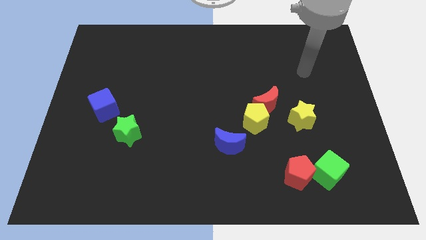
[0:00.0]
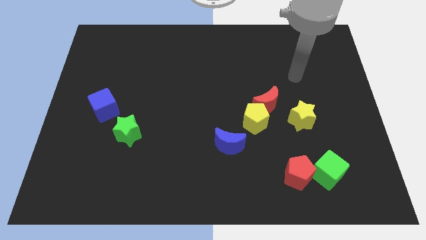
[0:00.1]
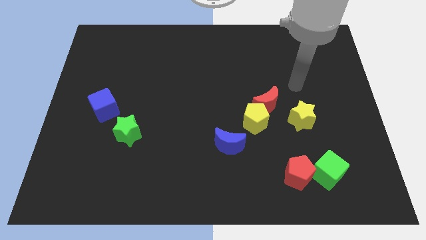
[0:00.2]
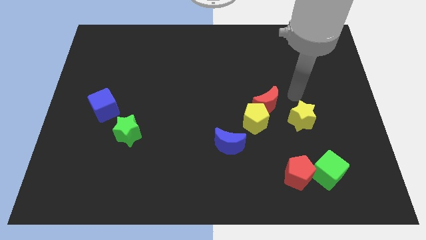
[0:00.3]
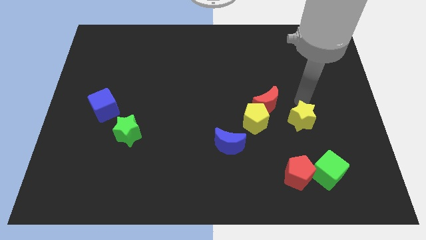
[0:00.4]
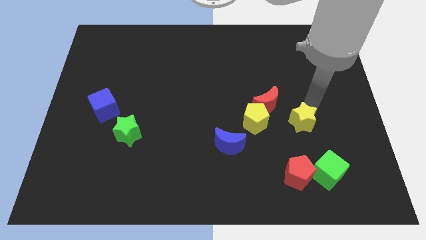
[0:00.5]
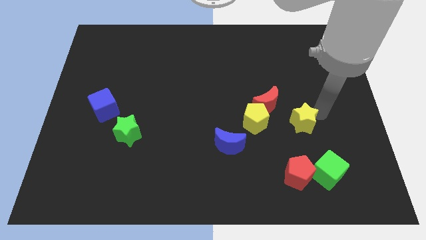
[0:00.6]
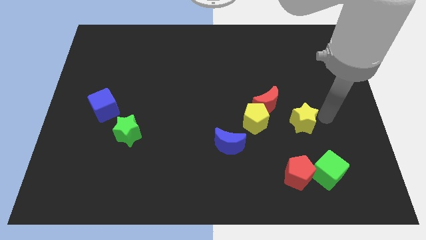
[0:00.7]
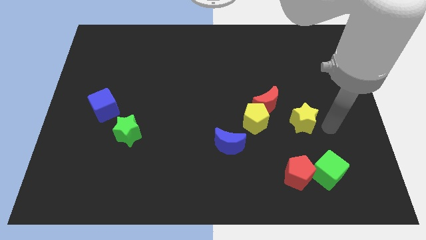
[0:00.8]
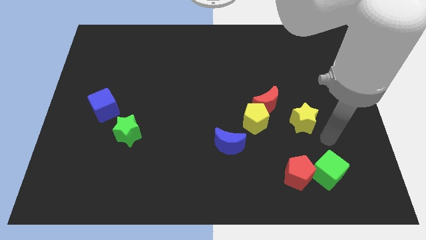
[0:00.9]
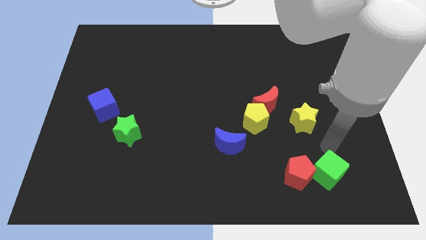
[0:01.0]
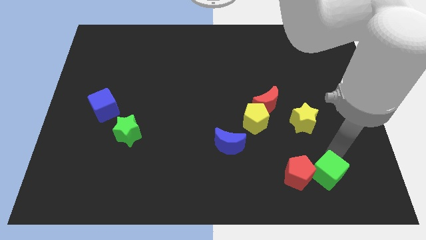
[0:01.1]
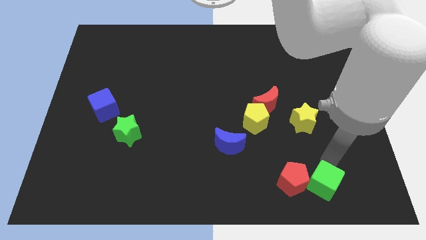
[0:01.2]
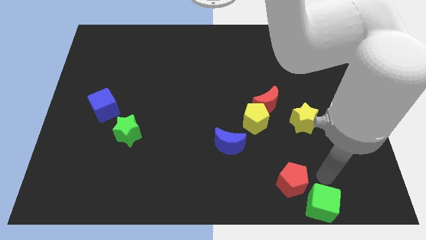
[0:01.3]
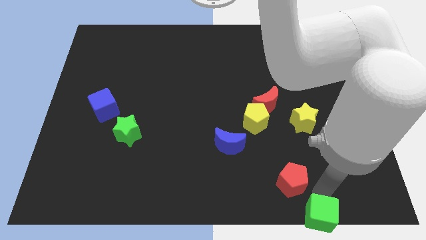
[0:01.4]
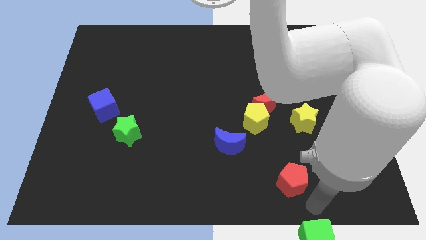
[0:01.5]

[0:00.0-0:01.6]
move the red pentagon away from the green cube

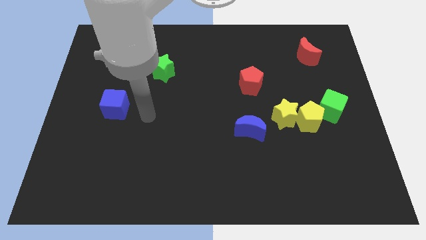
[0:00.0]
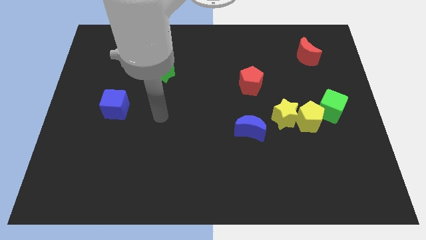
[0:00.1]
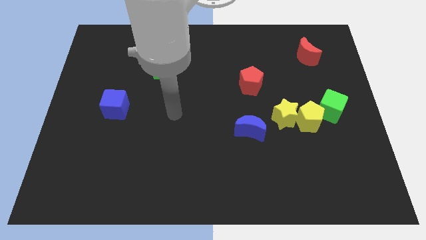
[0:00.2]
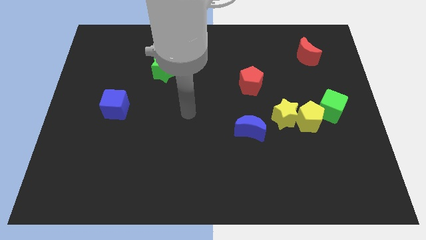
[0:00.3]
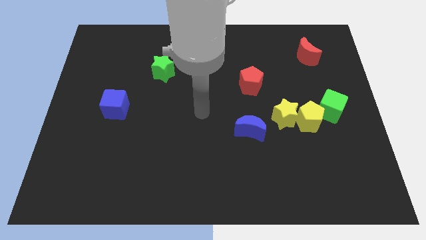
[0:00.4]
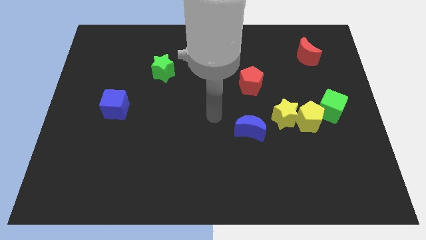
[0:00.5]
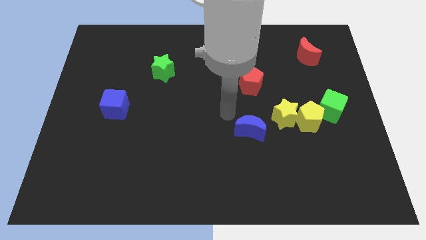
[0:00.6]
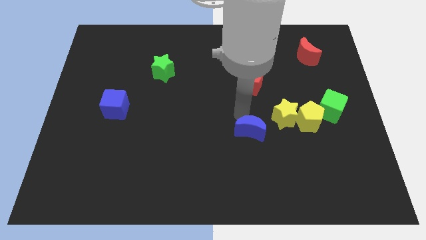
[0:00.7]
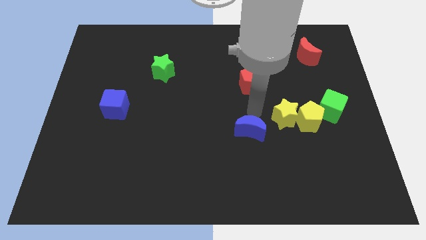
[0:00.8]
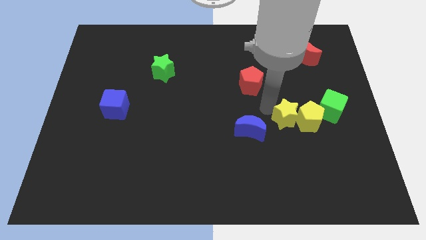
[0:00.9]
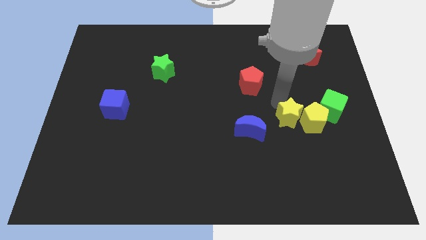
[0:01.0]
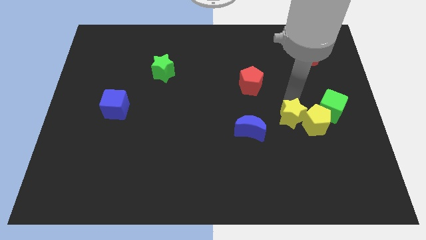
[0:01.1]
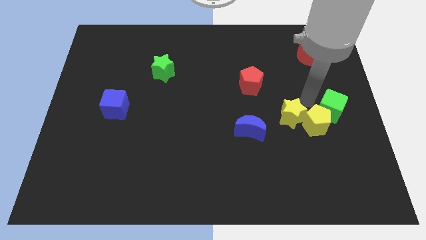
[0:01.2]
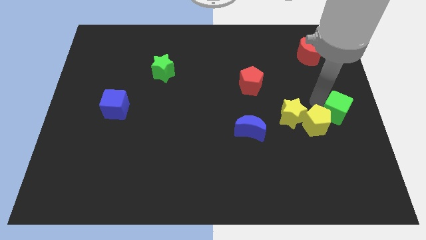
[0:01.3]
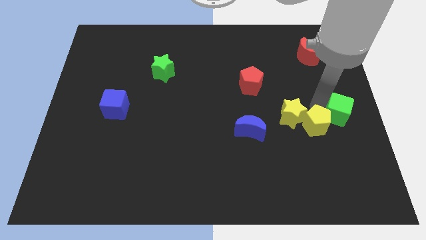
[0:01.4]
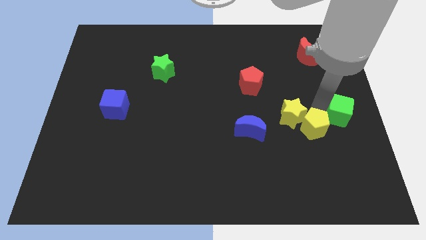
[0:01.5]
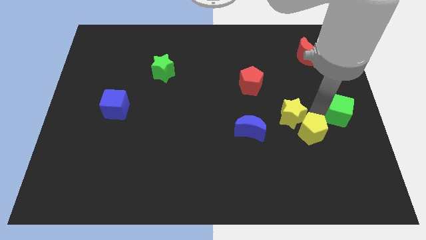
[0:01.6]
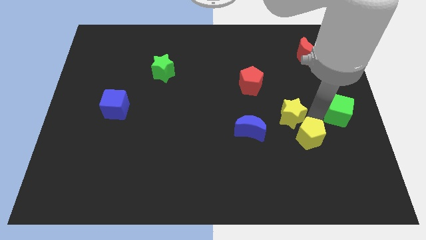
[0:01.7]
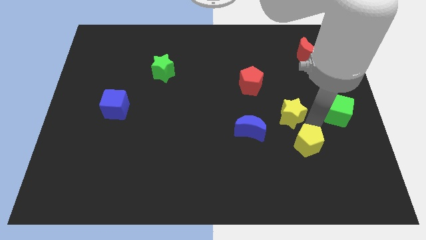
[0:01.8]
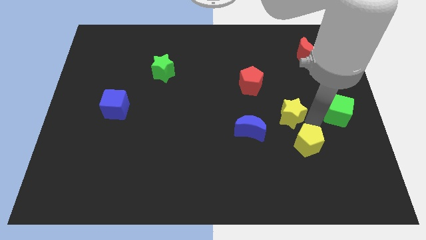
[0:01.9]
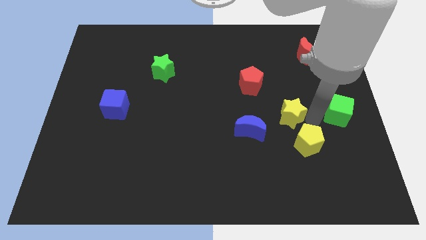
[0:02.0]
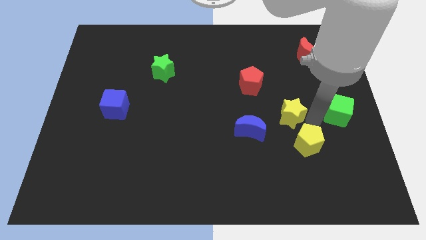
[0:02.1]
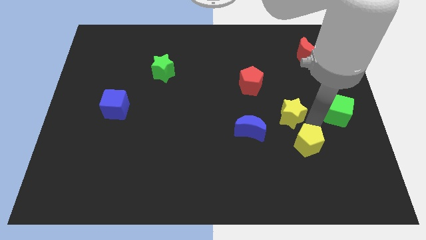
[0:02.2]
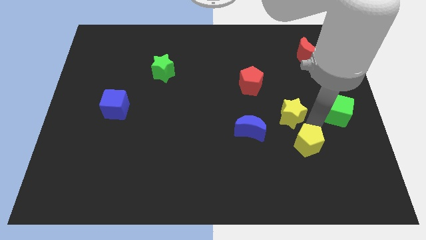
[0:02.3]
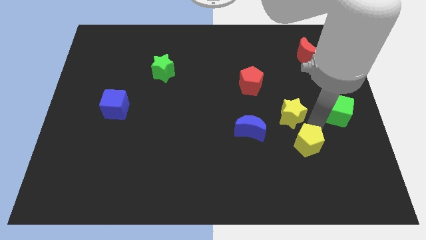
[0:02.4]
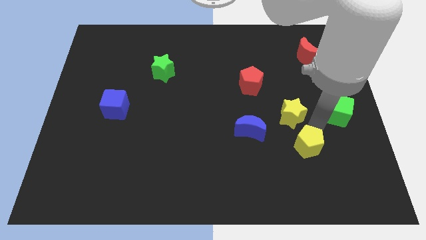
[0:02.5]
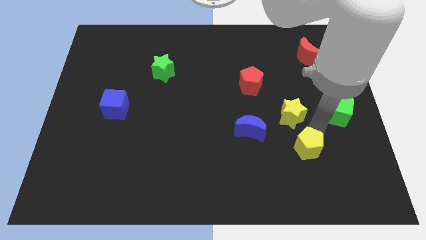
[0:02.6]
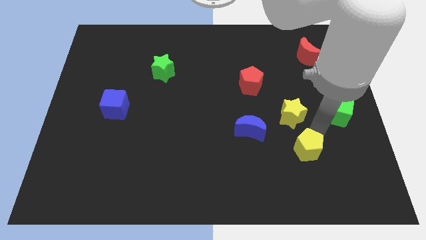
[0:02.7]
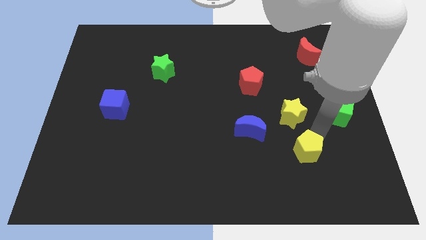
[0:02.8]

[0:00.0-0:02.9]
move the yellow pentagon away from the yellow star and green cube

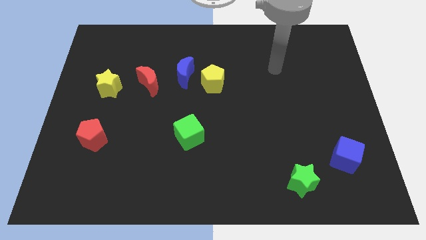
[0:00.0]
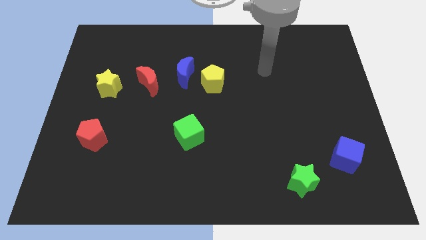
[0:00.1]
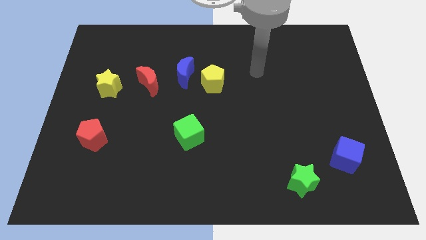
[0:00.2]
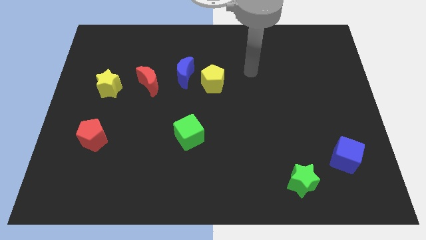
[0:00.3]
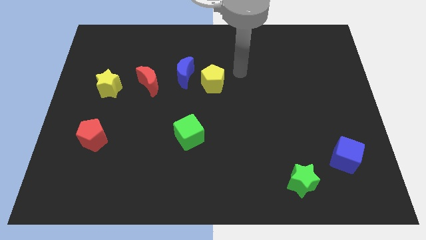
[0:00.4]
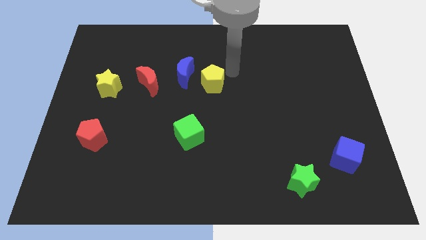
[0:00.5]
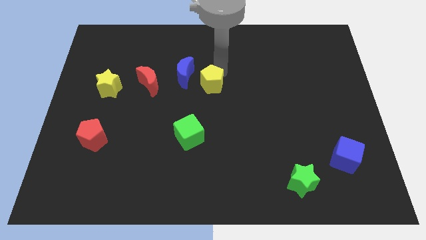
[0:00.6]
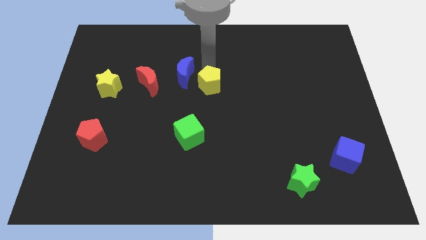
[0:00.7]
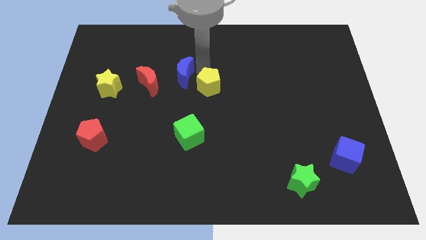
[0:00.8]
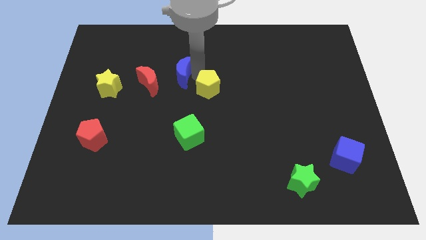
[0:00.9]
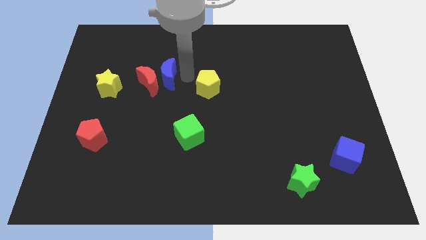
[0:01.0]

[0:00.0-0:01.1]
move the yellow pentagon away from the blue moon

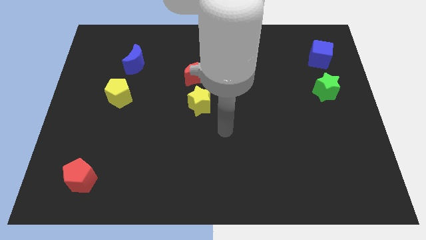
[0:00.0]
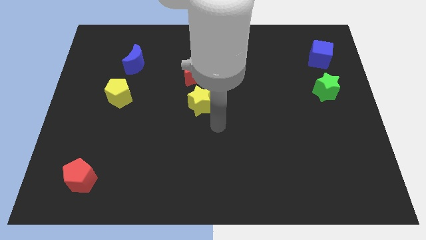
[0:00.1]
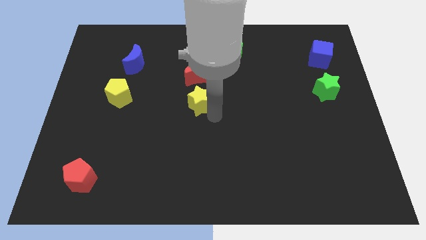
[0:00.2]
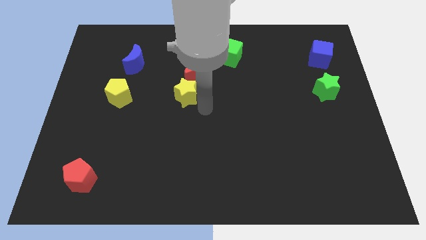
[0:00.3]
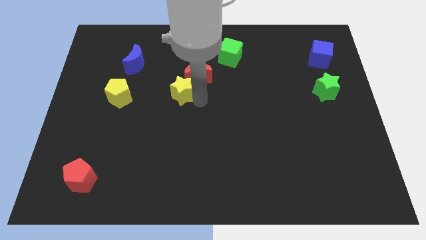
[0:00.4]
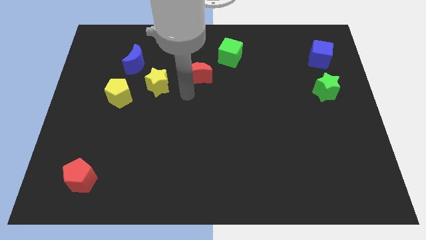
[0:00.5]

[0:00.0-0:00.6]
move the red moon away from the yellow star

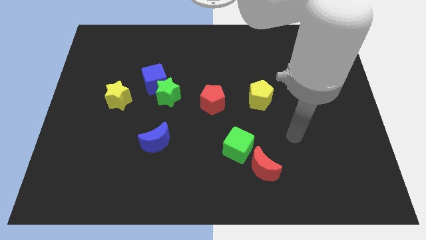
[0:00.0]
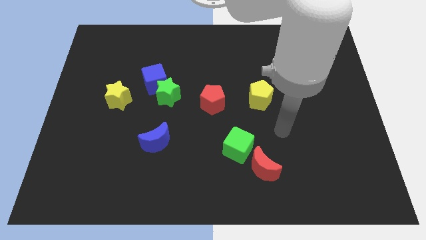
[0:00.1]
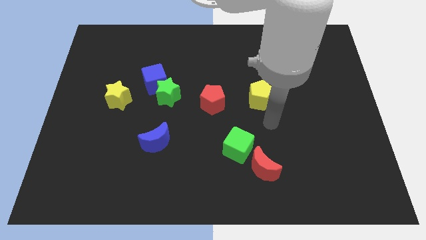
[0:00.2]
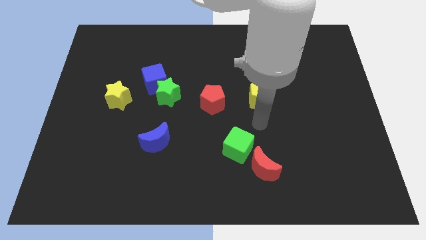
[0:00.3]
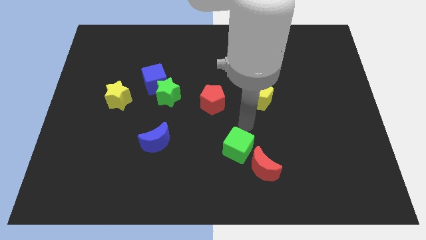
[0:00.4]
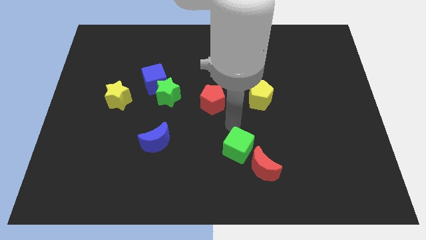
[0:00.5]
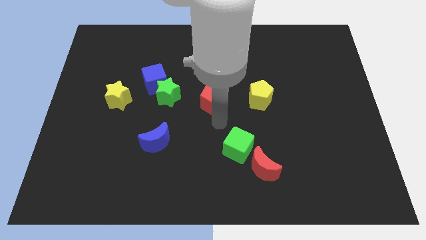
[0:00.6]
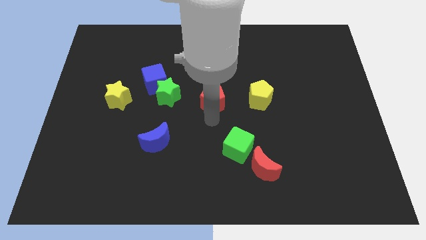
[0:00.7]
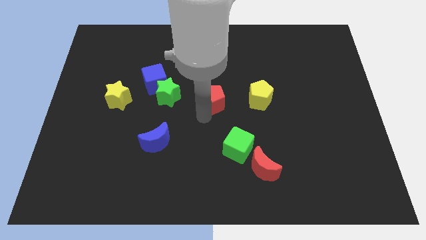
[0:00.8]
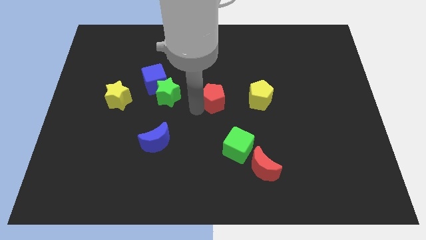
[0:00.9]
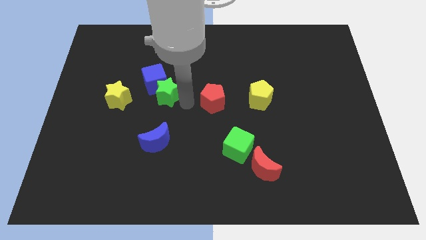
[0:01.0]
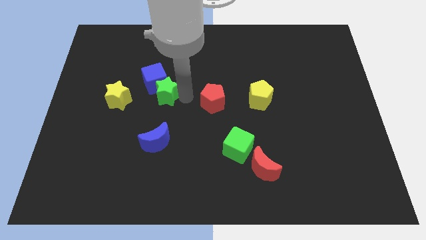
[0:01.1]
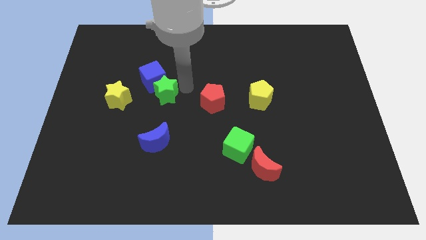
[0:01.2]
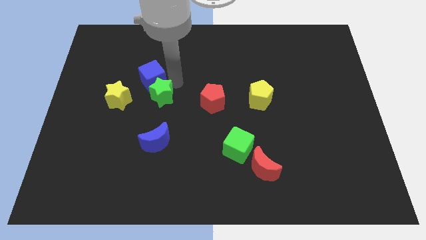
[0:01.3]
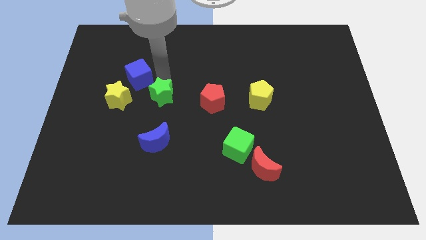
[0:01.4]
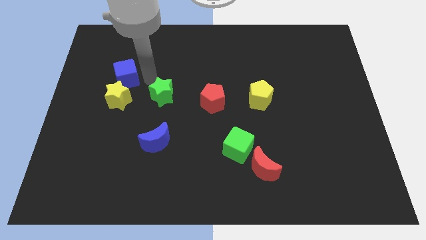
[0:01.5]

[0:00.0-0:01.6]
pull the green star apart from the blue cube

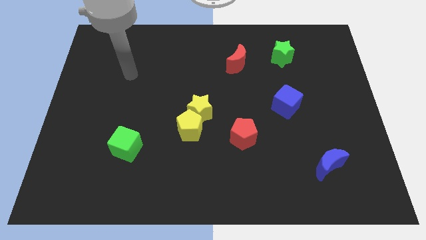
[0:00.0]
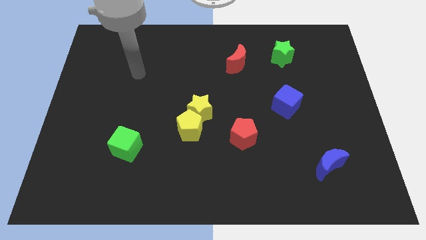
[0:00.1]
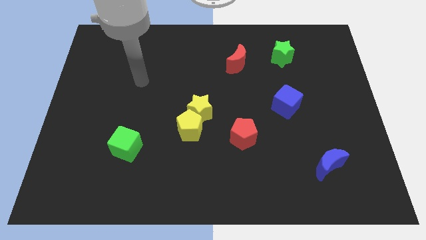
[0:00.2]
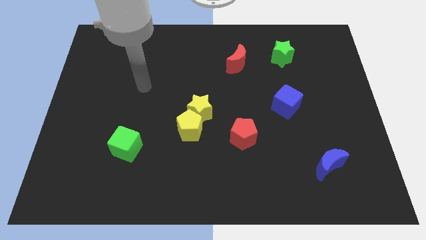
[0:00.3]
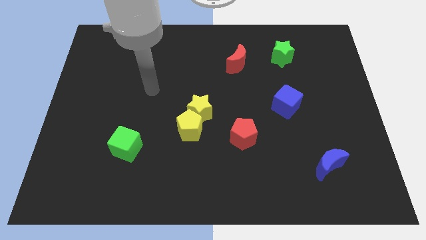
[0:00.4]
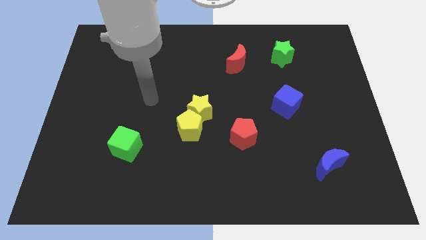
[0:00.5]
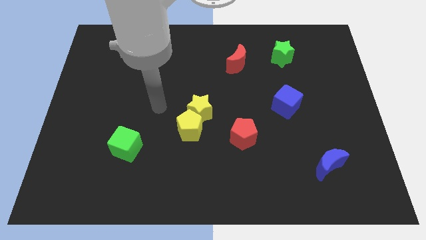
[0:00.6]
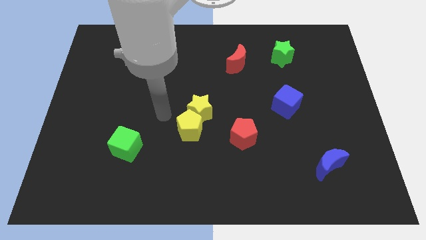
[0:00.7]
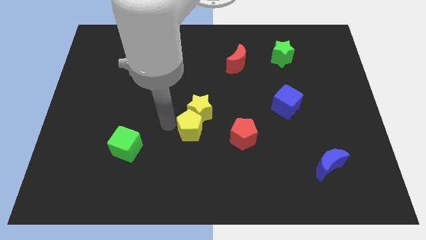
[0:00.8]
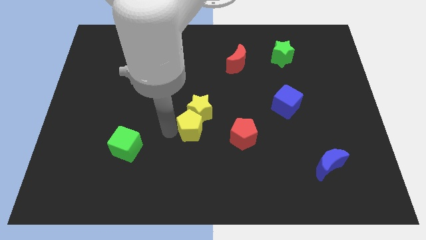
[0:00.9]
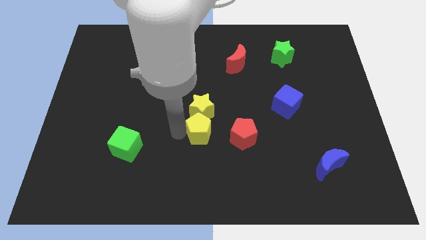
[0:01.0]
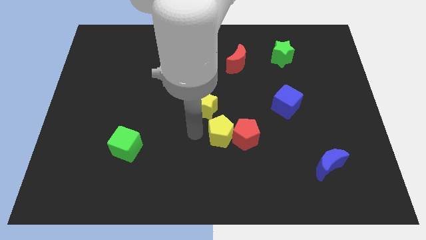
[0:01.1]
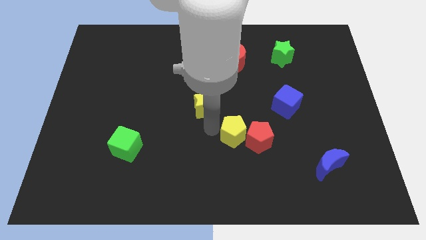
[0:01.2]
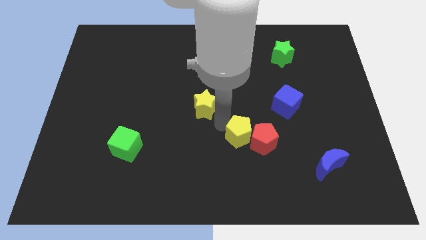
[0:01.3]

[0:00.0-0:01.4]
move the yellow star away from the yellow pentagon
